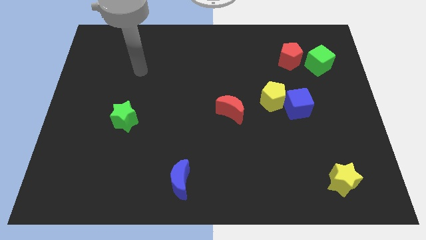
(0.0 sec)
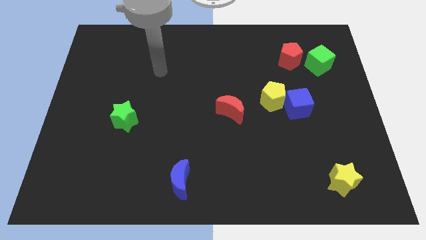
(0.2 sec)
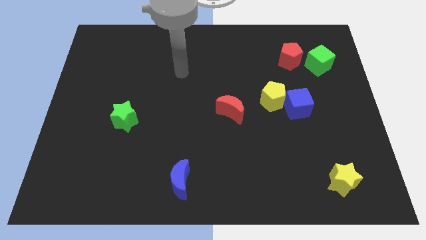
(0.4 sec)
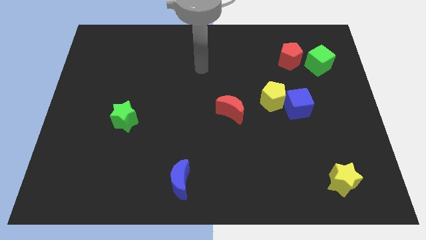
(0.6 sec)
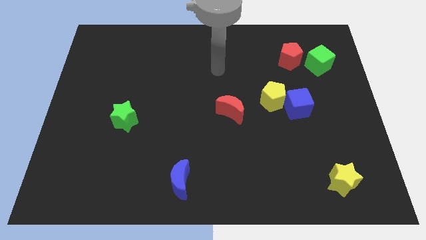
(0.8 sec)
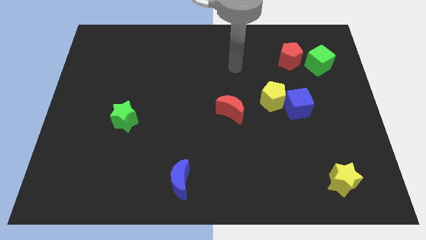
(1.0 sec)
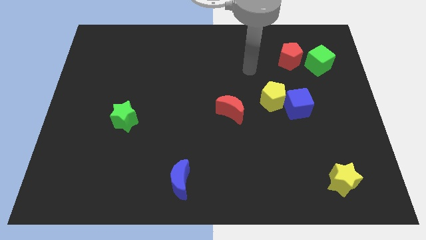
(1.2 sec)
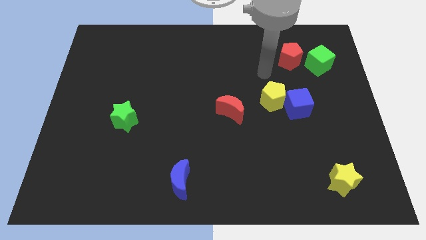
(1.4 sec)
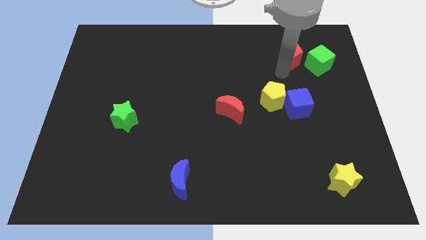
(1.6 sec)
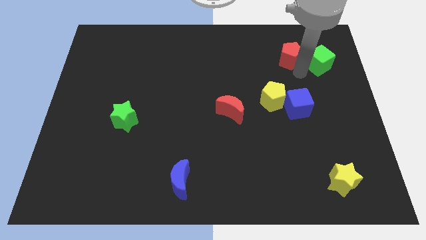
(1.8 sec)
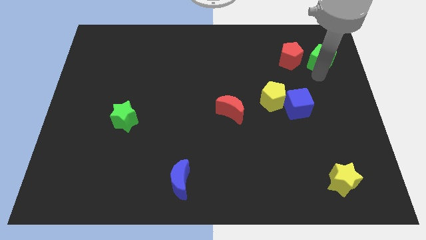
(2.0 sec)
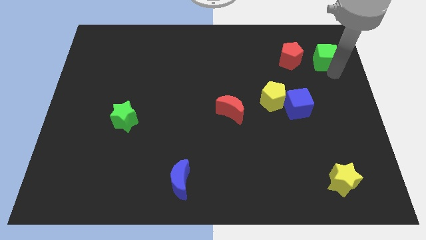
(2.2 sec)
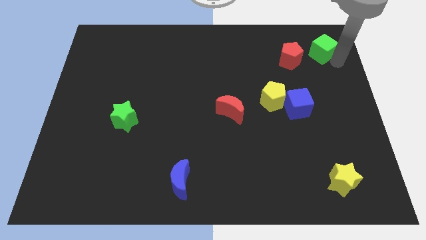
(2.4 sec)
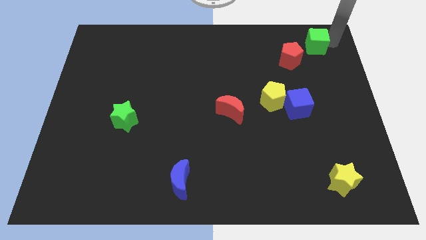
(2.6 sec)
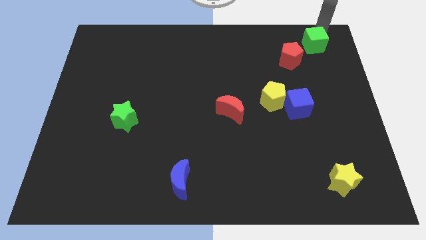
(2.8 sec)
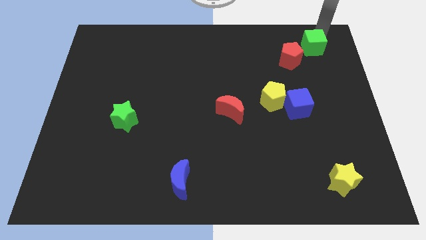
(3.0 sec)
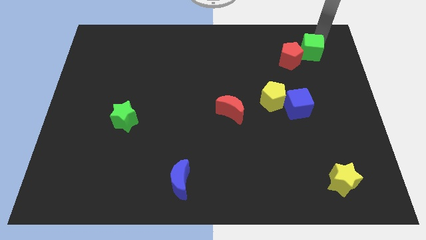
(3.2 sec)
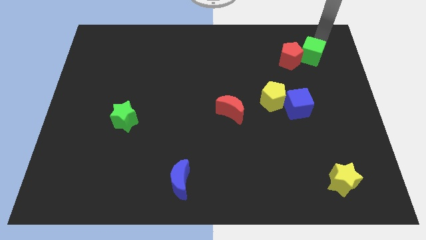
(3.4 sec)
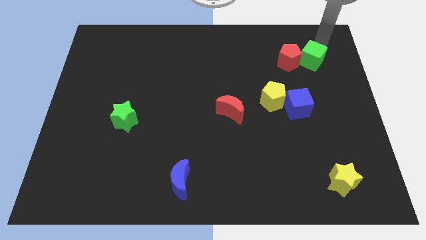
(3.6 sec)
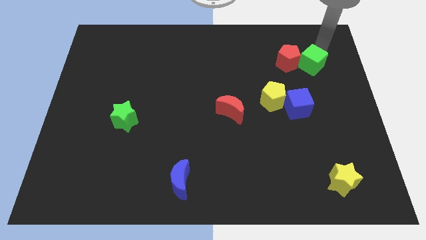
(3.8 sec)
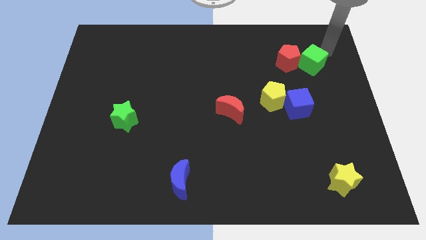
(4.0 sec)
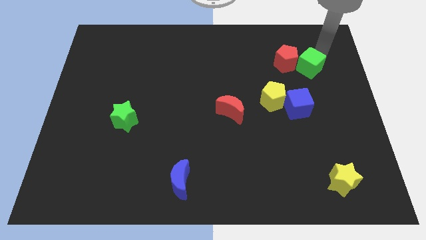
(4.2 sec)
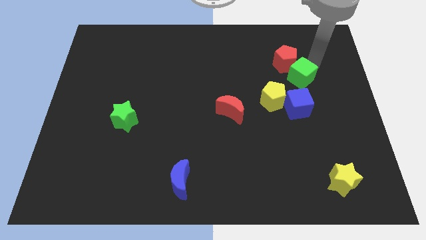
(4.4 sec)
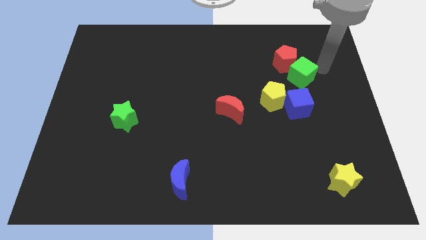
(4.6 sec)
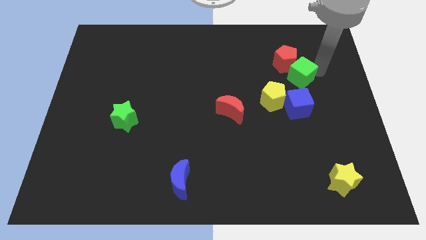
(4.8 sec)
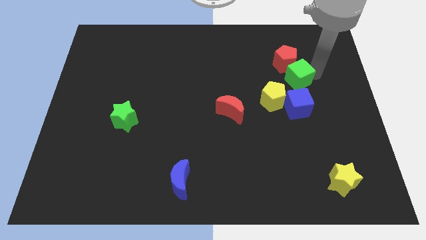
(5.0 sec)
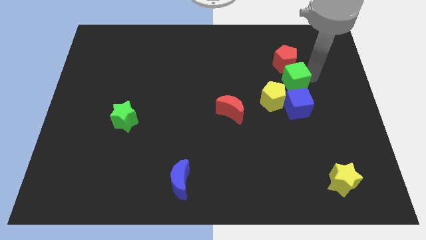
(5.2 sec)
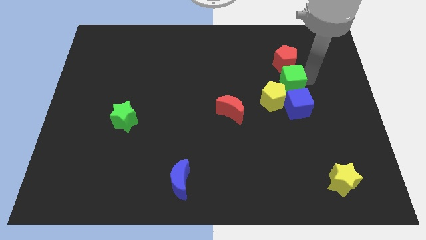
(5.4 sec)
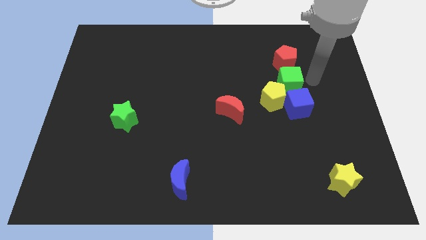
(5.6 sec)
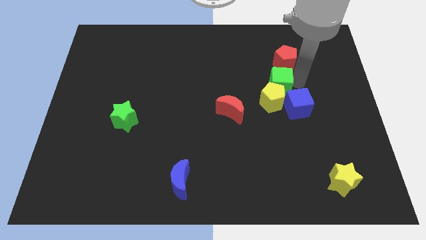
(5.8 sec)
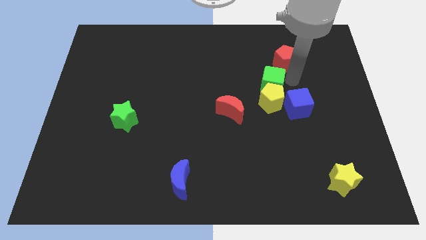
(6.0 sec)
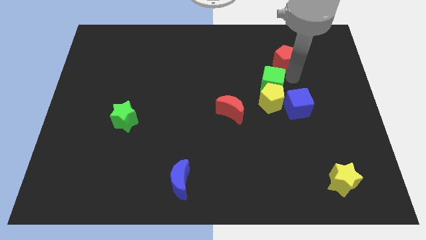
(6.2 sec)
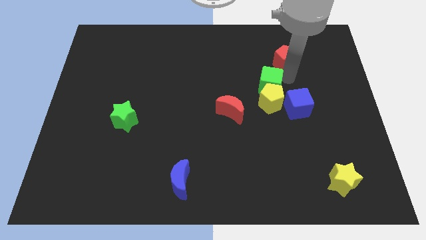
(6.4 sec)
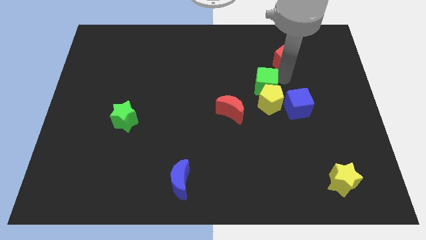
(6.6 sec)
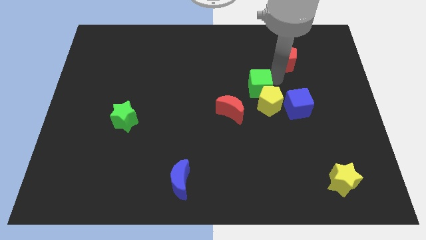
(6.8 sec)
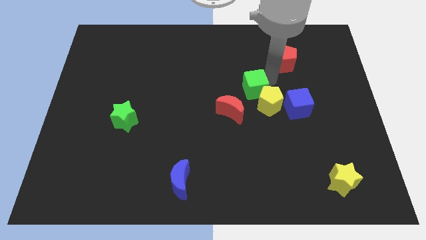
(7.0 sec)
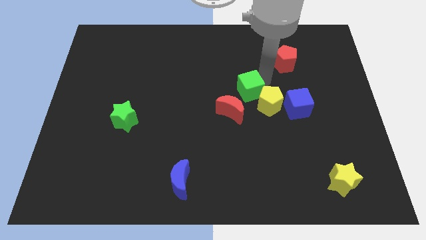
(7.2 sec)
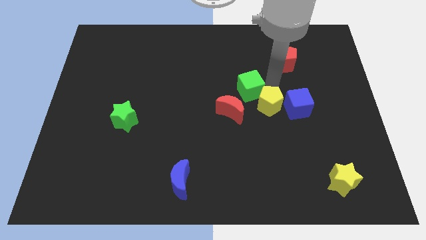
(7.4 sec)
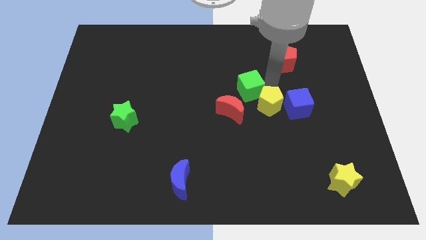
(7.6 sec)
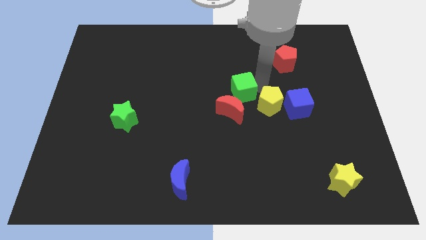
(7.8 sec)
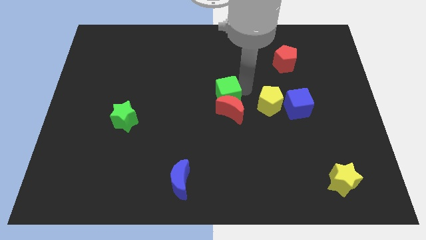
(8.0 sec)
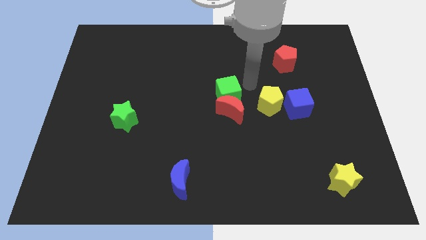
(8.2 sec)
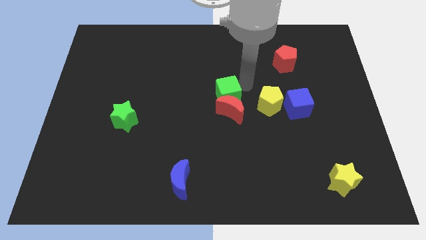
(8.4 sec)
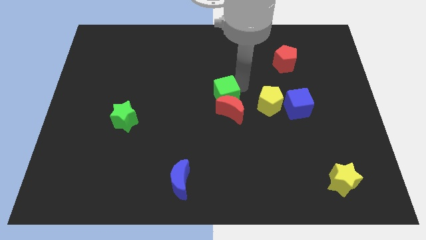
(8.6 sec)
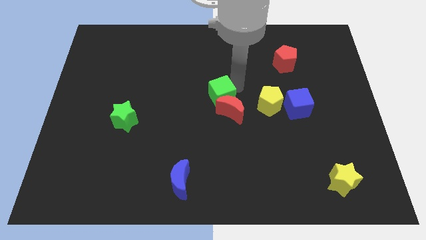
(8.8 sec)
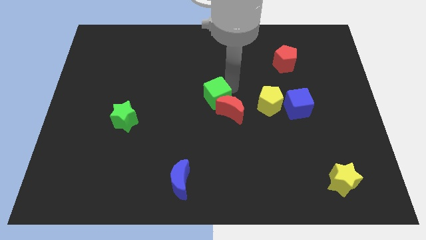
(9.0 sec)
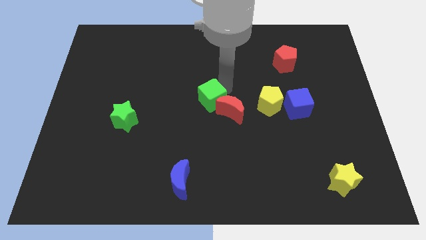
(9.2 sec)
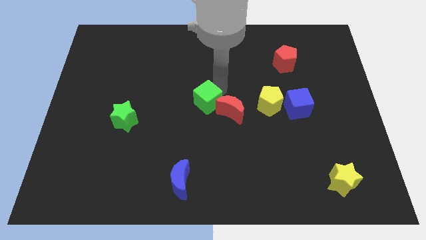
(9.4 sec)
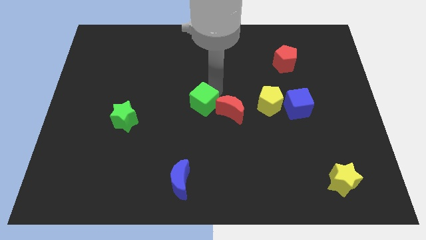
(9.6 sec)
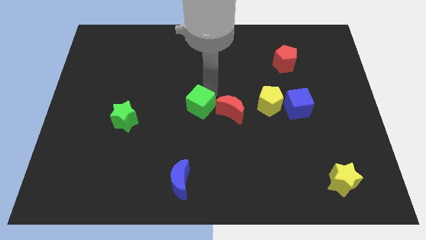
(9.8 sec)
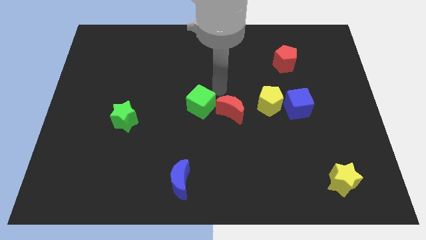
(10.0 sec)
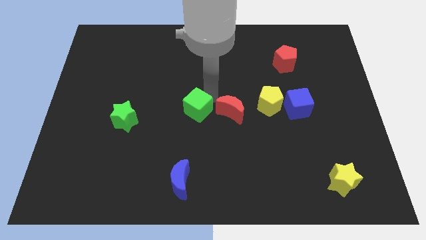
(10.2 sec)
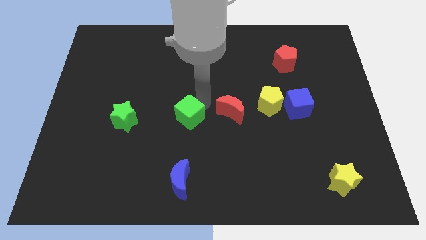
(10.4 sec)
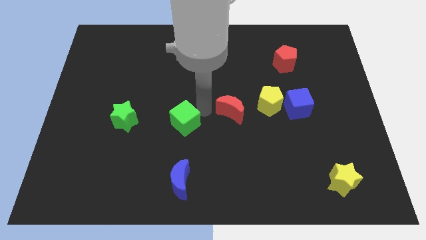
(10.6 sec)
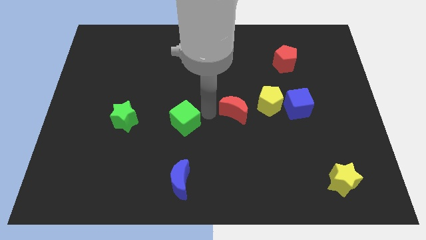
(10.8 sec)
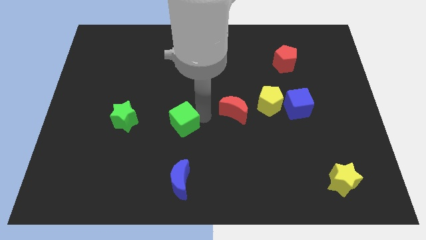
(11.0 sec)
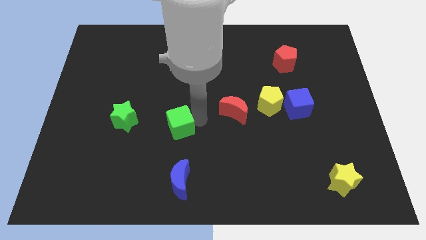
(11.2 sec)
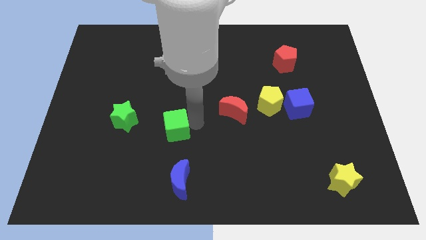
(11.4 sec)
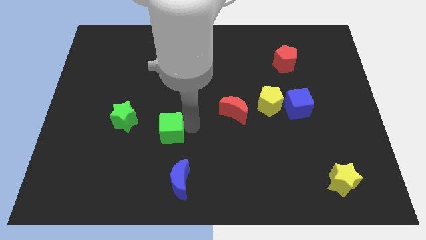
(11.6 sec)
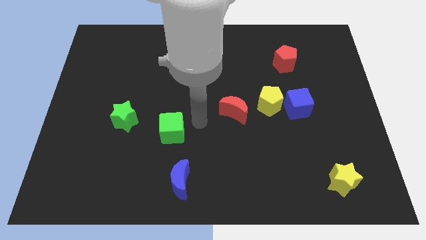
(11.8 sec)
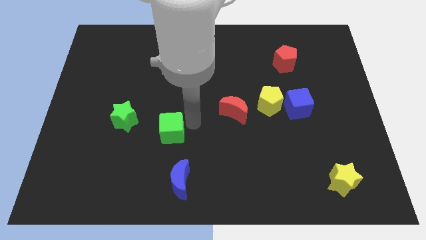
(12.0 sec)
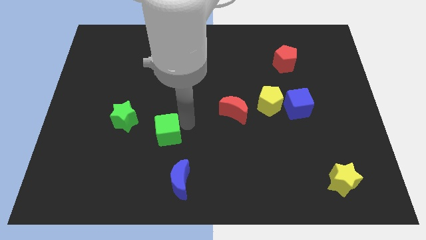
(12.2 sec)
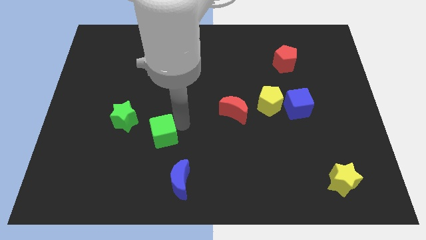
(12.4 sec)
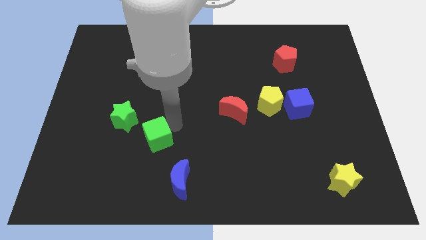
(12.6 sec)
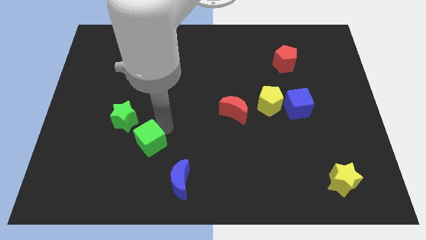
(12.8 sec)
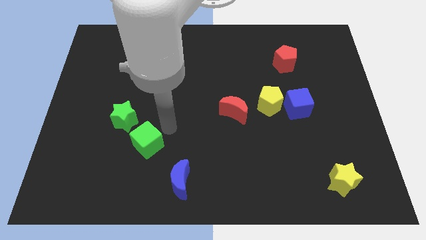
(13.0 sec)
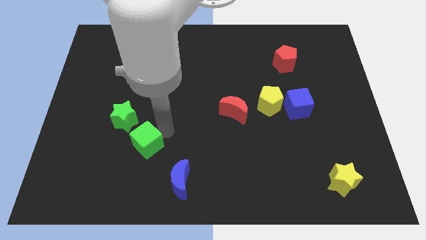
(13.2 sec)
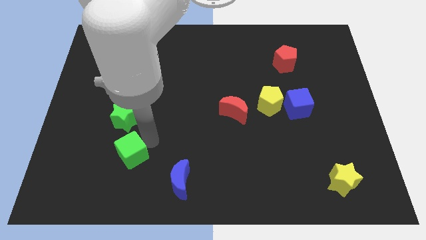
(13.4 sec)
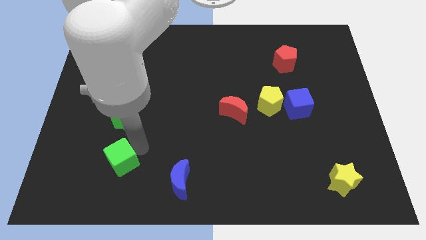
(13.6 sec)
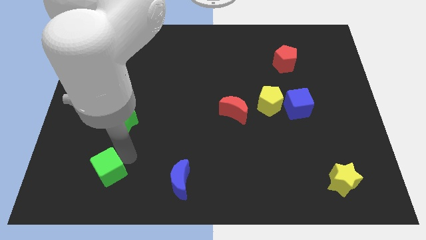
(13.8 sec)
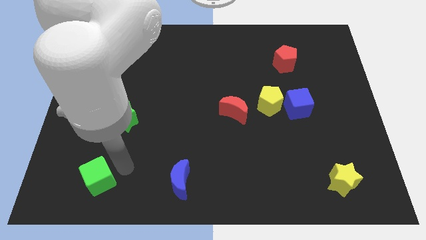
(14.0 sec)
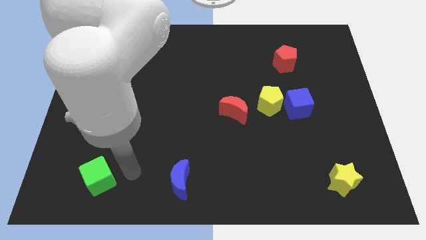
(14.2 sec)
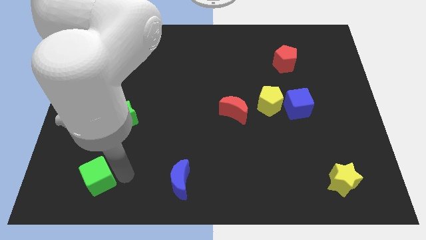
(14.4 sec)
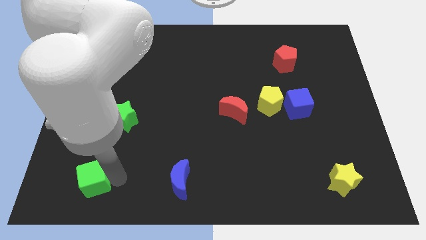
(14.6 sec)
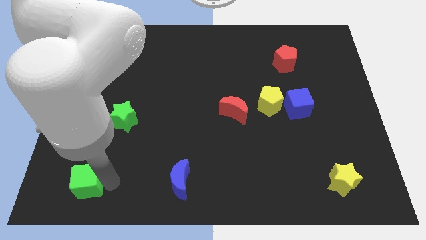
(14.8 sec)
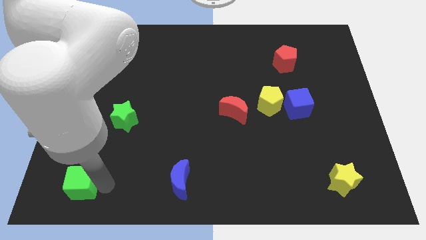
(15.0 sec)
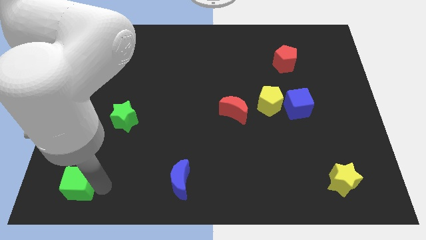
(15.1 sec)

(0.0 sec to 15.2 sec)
move the green cube to the bottom left
